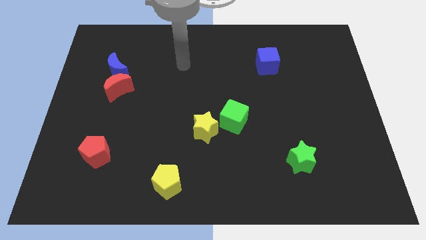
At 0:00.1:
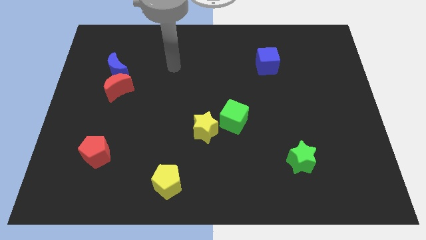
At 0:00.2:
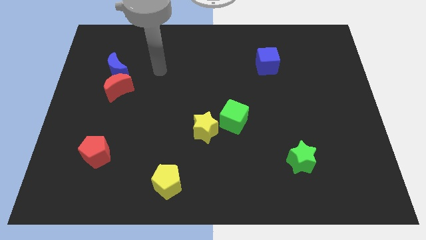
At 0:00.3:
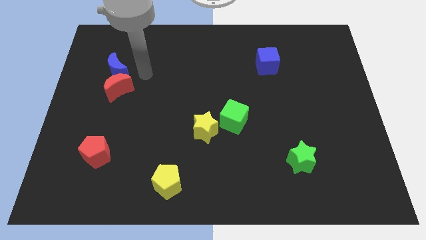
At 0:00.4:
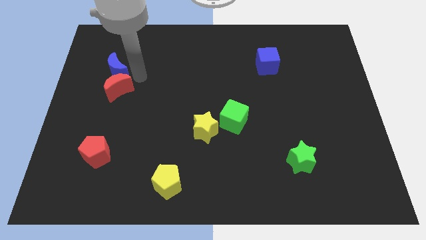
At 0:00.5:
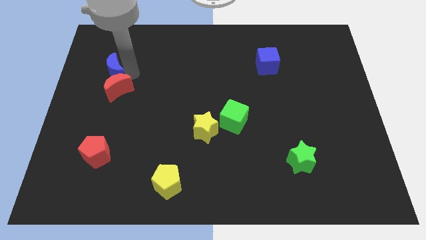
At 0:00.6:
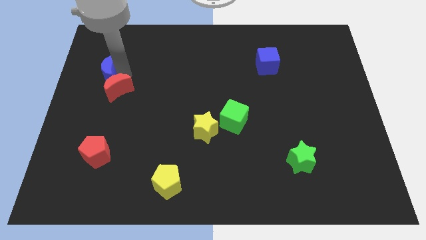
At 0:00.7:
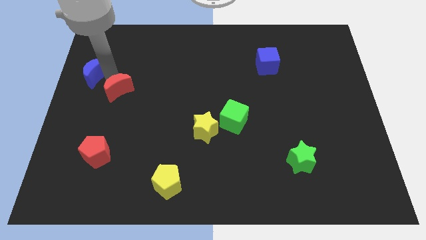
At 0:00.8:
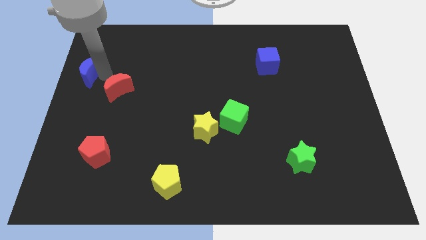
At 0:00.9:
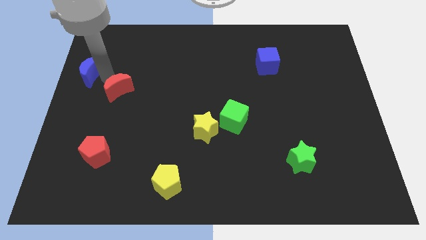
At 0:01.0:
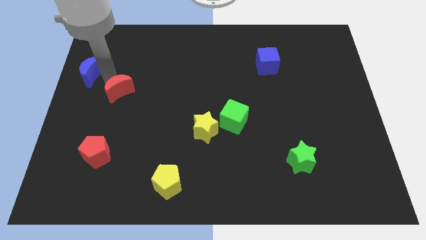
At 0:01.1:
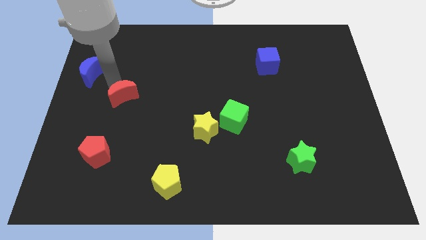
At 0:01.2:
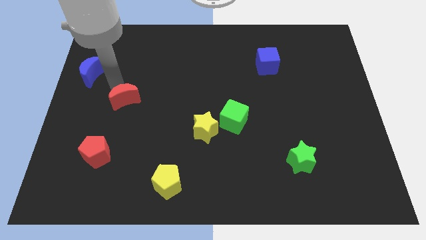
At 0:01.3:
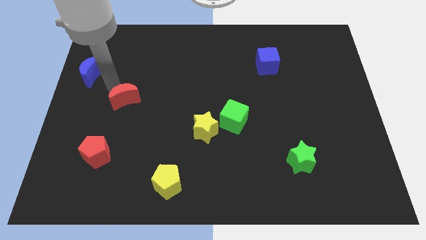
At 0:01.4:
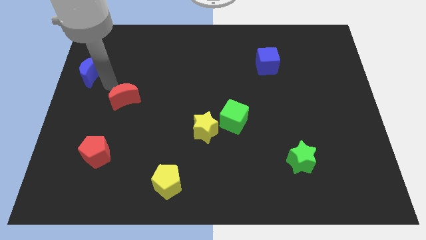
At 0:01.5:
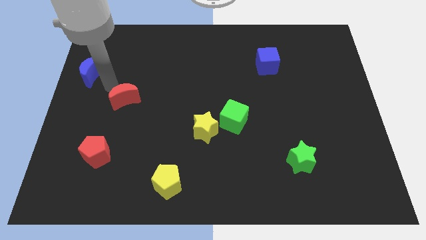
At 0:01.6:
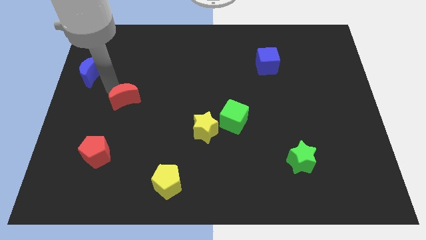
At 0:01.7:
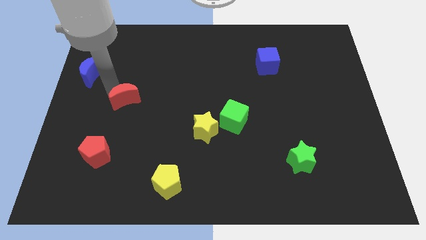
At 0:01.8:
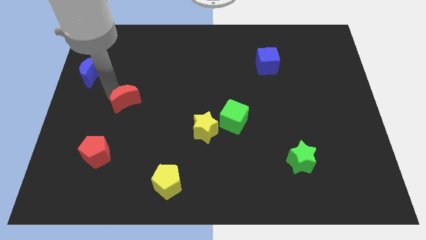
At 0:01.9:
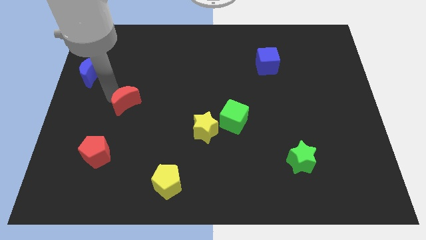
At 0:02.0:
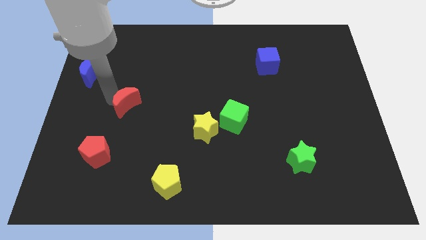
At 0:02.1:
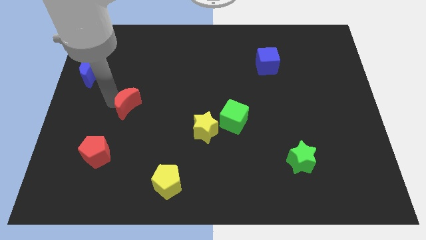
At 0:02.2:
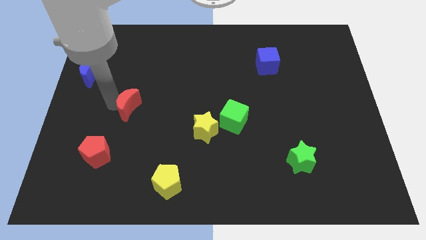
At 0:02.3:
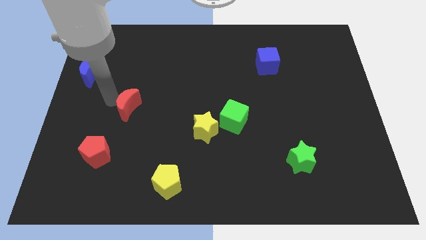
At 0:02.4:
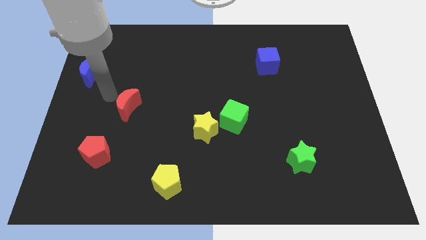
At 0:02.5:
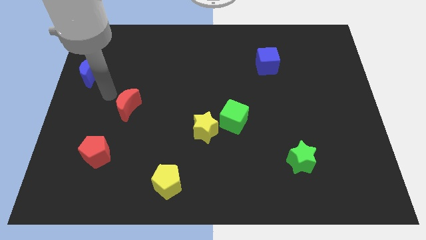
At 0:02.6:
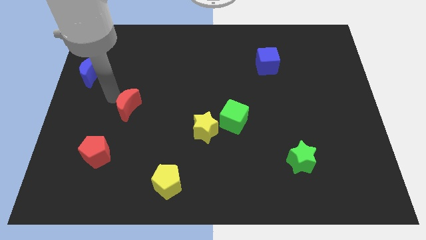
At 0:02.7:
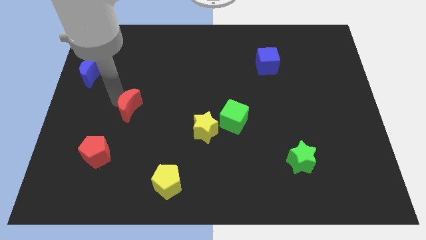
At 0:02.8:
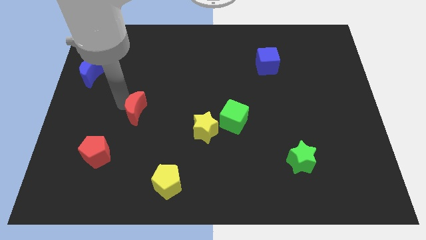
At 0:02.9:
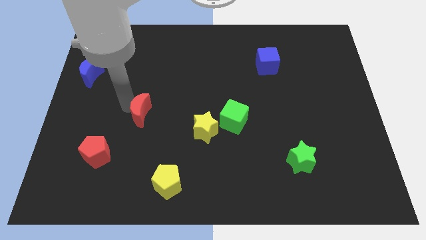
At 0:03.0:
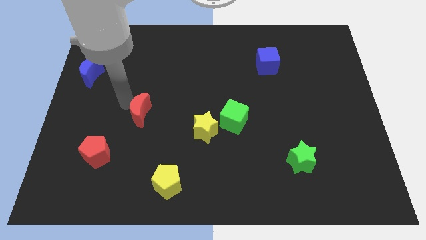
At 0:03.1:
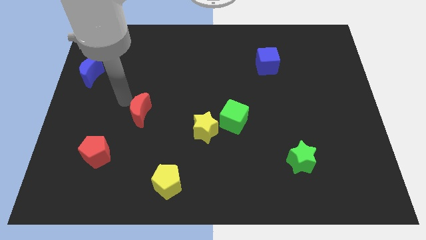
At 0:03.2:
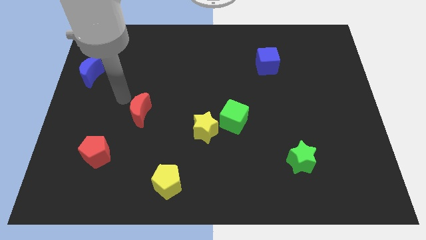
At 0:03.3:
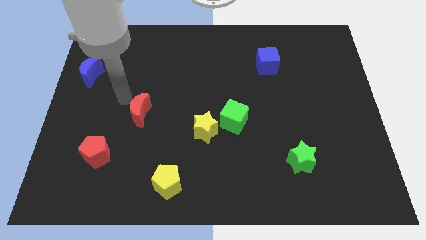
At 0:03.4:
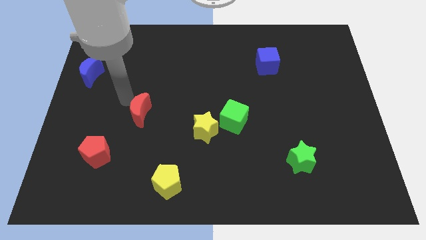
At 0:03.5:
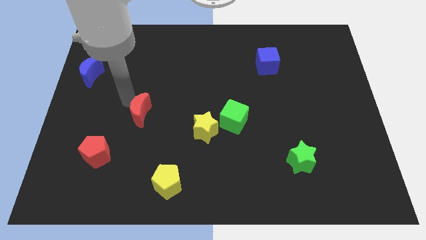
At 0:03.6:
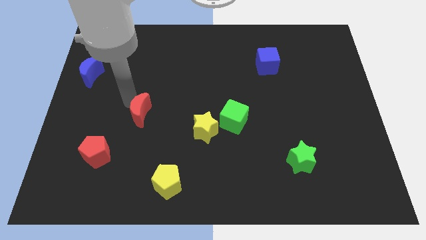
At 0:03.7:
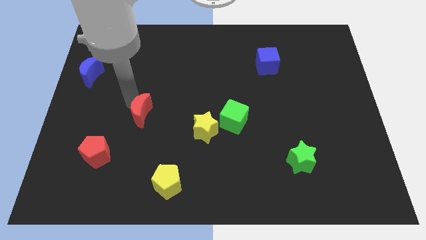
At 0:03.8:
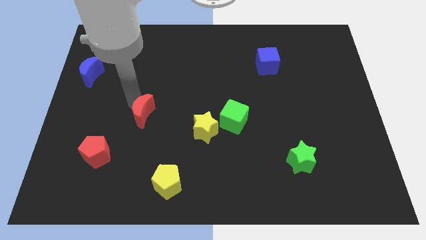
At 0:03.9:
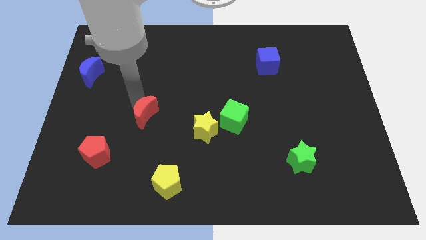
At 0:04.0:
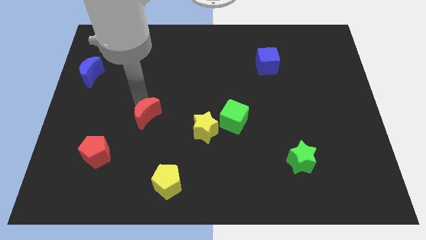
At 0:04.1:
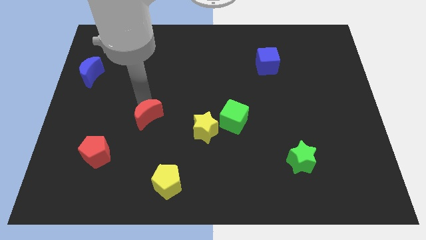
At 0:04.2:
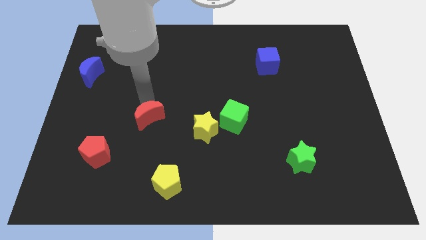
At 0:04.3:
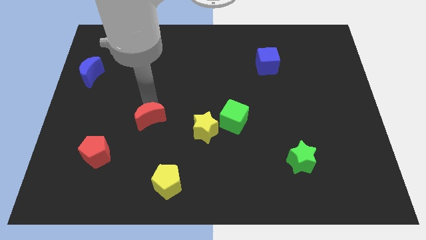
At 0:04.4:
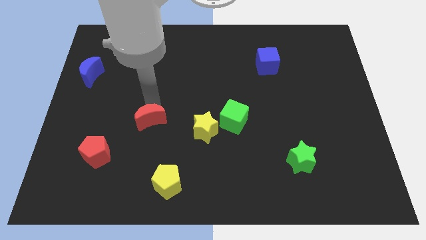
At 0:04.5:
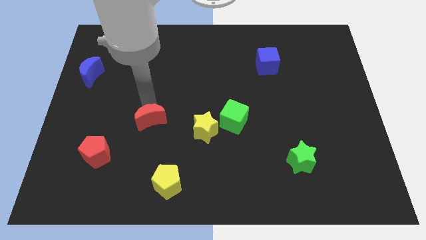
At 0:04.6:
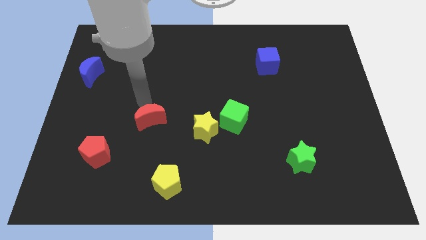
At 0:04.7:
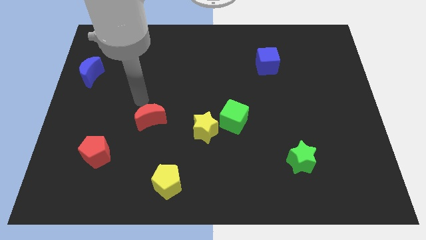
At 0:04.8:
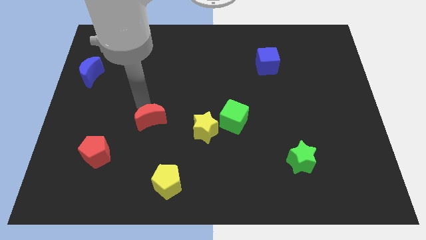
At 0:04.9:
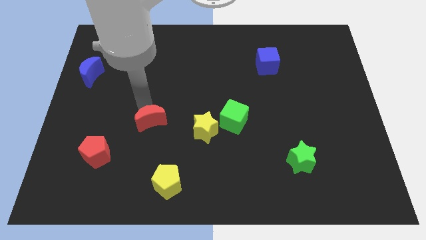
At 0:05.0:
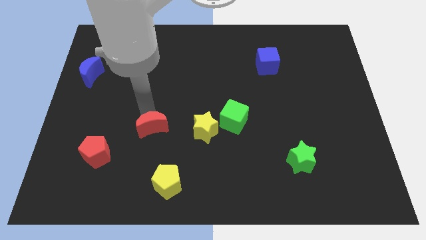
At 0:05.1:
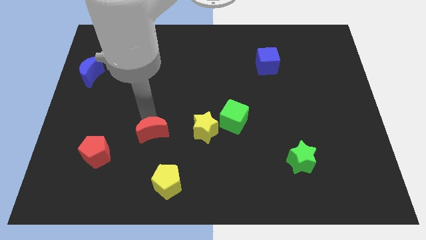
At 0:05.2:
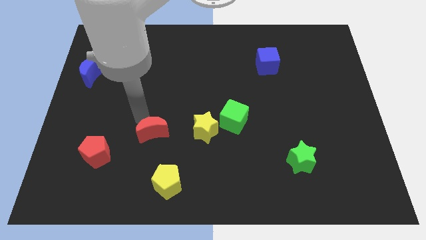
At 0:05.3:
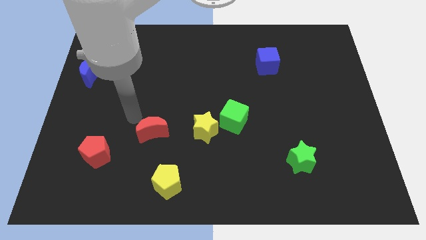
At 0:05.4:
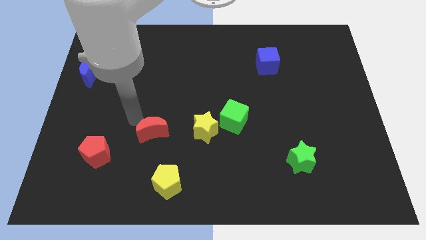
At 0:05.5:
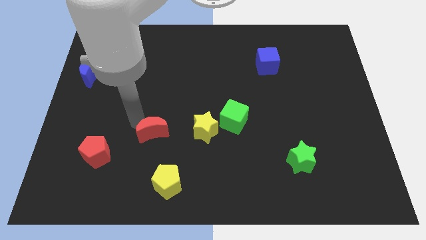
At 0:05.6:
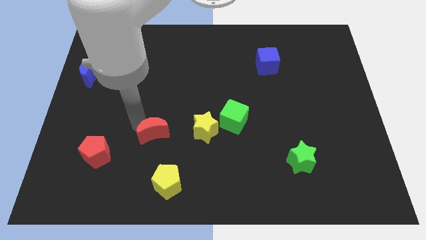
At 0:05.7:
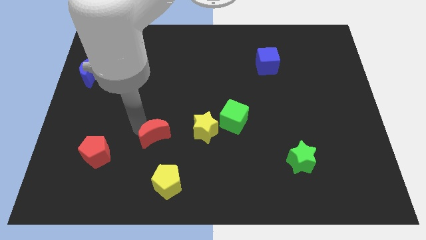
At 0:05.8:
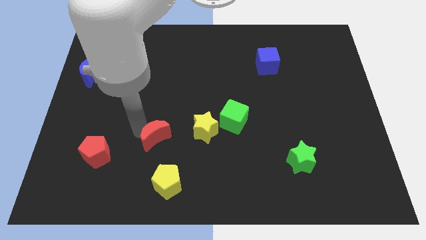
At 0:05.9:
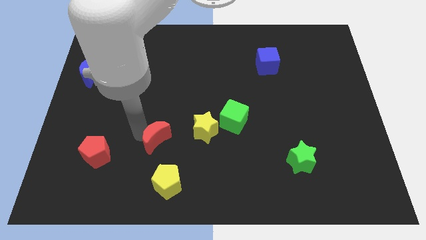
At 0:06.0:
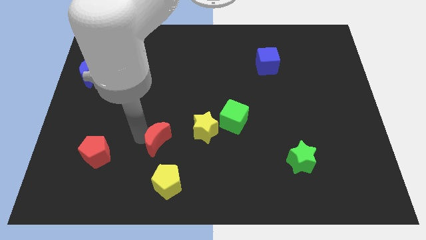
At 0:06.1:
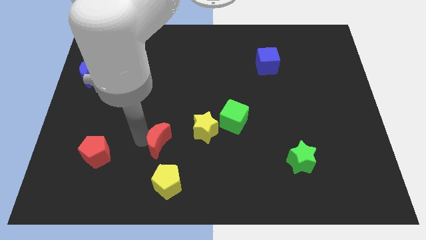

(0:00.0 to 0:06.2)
push the red moon to the bottom left of the yellow star

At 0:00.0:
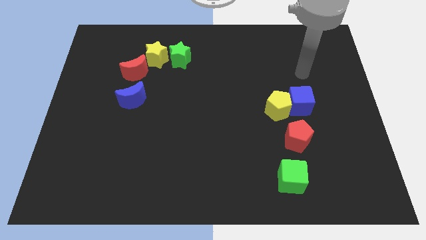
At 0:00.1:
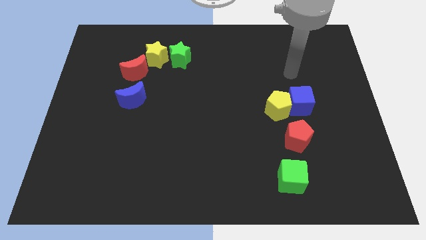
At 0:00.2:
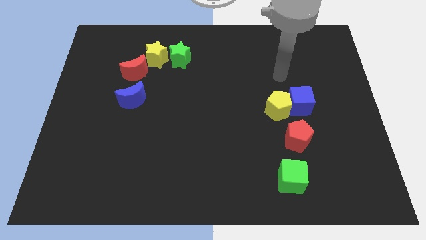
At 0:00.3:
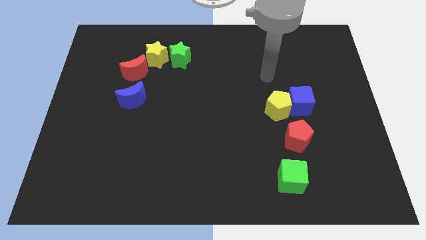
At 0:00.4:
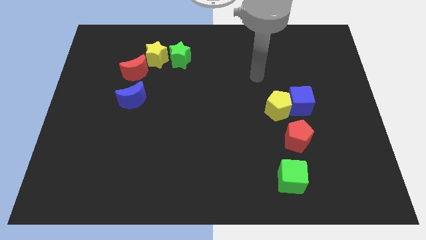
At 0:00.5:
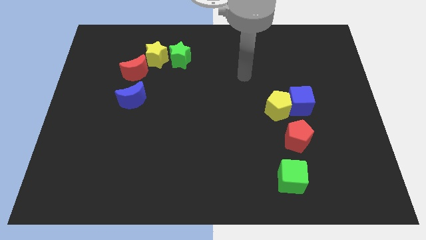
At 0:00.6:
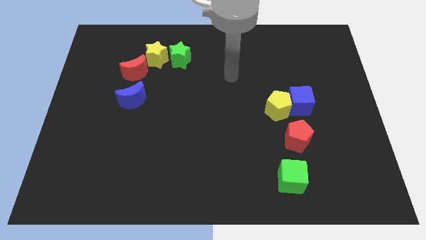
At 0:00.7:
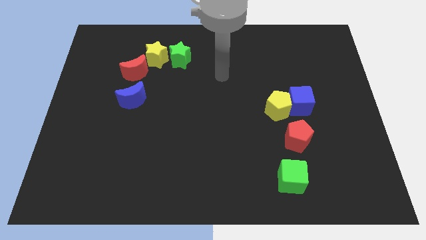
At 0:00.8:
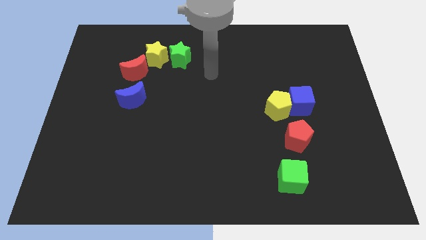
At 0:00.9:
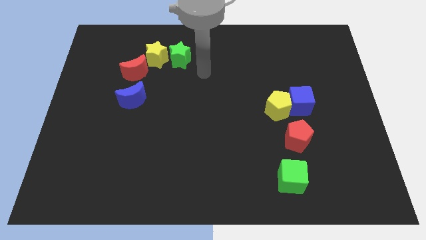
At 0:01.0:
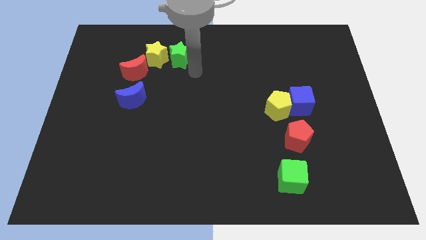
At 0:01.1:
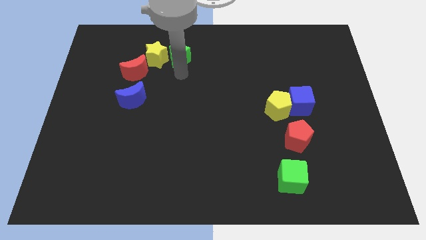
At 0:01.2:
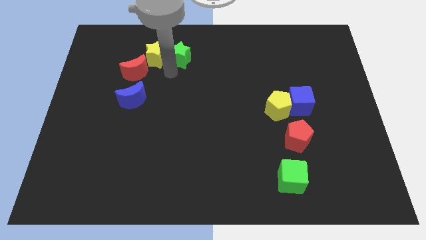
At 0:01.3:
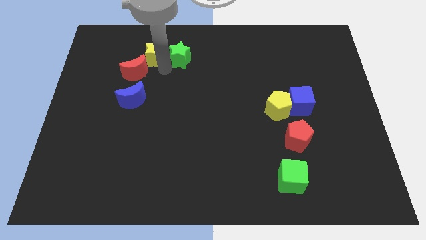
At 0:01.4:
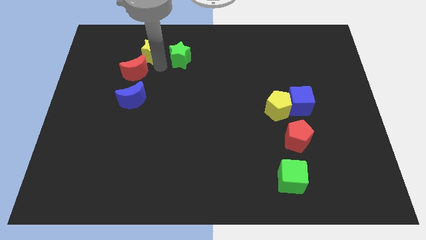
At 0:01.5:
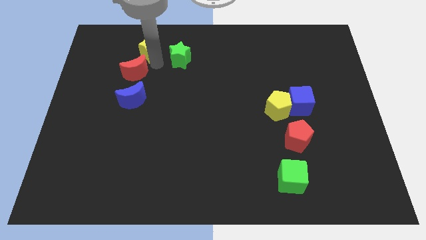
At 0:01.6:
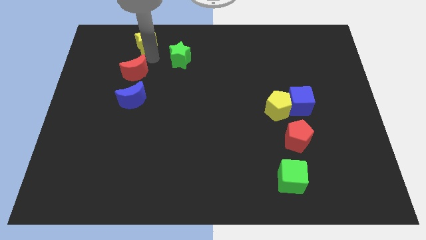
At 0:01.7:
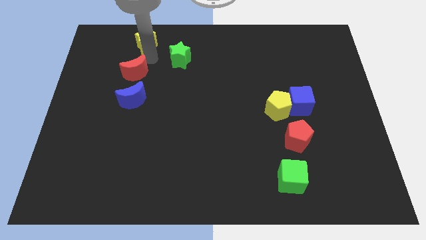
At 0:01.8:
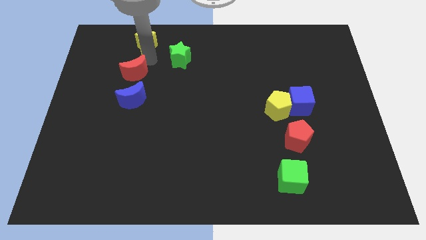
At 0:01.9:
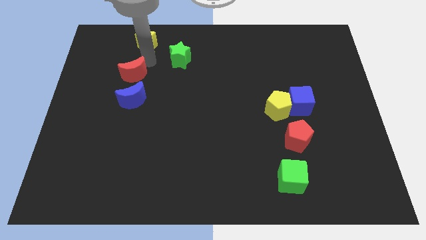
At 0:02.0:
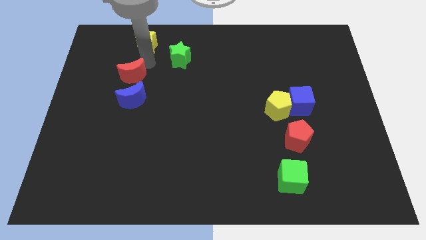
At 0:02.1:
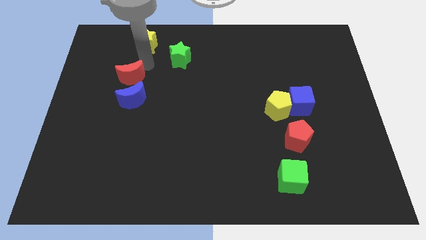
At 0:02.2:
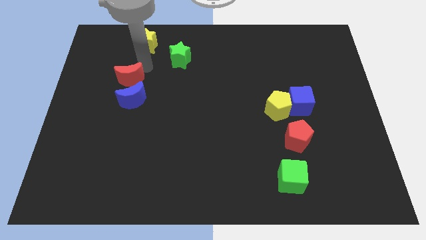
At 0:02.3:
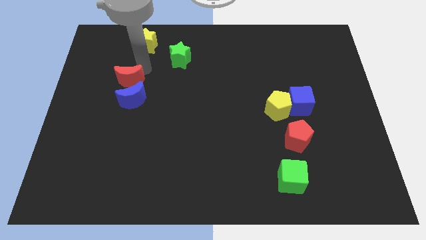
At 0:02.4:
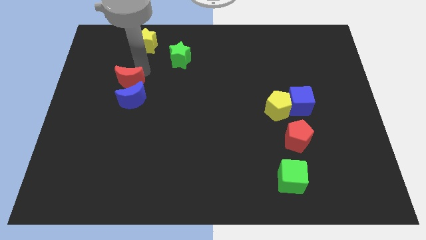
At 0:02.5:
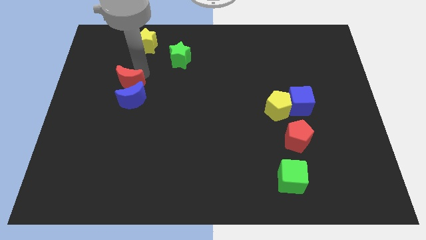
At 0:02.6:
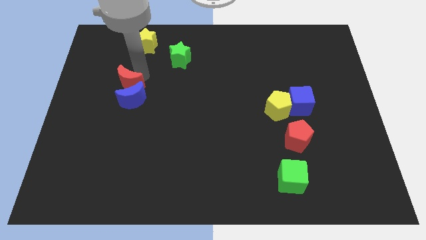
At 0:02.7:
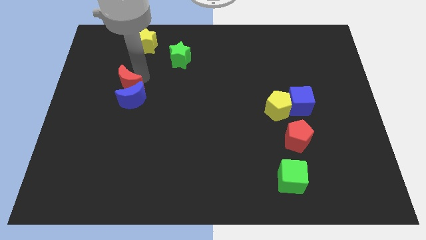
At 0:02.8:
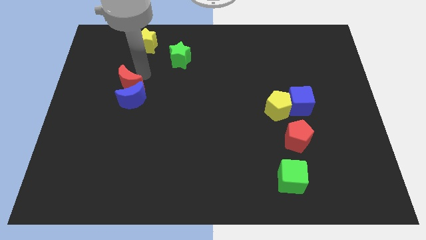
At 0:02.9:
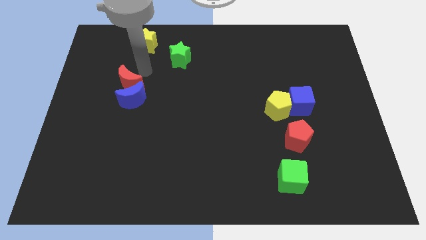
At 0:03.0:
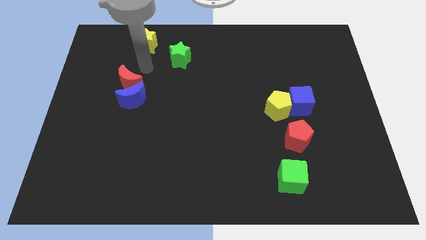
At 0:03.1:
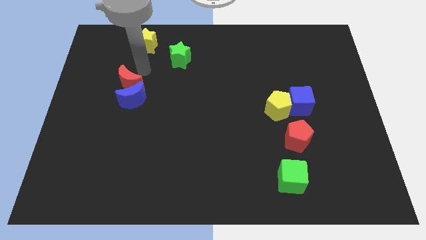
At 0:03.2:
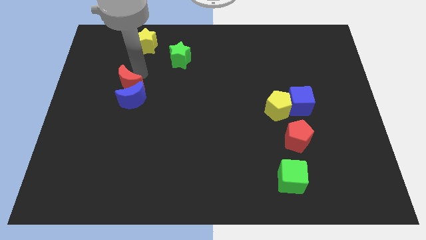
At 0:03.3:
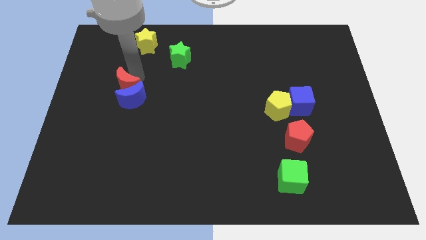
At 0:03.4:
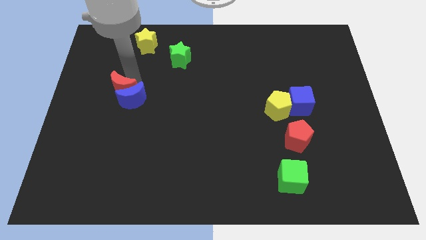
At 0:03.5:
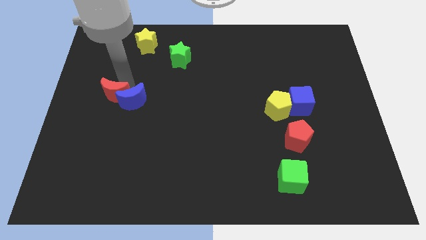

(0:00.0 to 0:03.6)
move the red moon to the bottom left side of the blue moon
